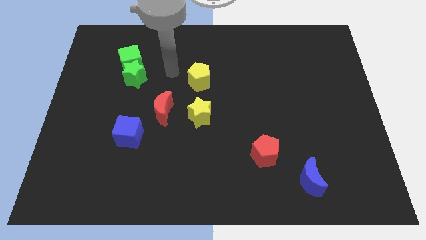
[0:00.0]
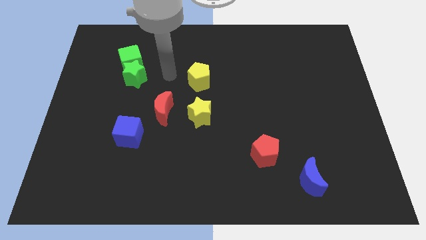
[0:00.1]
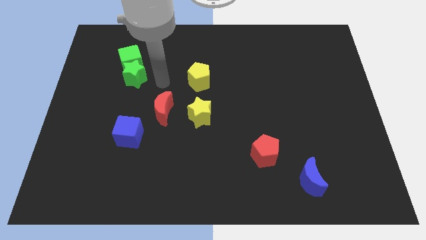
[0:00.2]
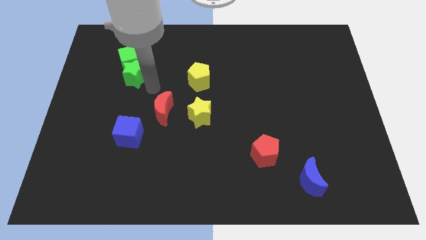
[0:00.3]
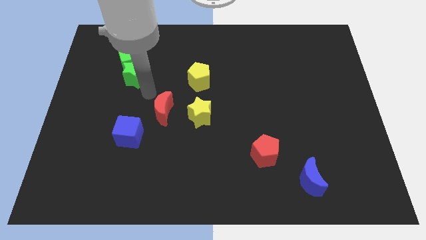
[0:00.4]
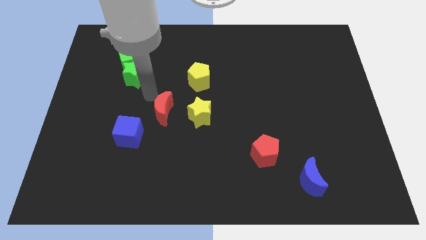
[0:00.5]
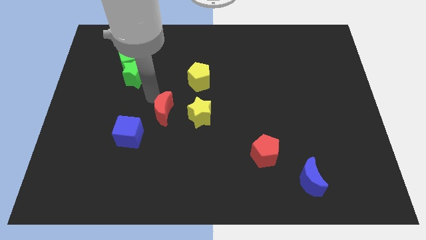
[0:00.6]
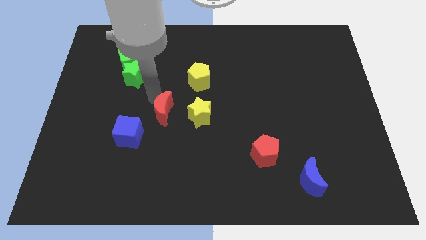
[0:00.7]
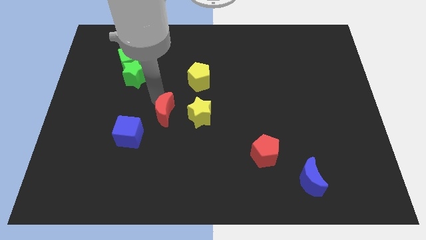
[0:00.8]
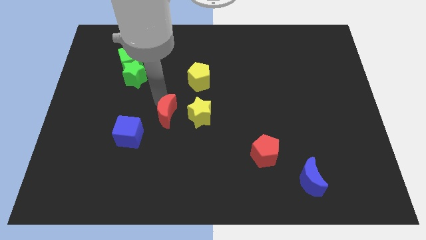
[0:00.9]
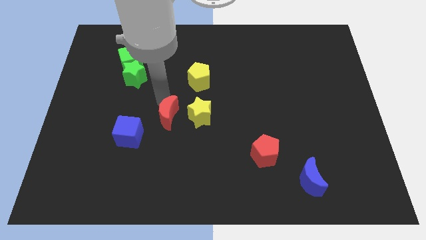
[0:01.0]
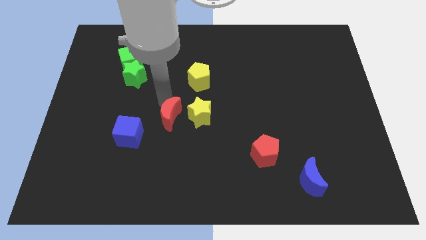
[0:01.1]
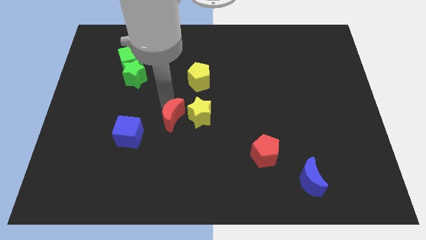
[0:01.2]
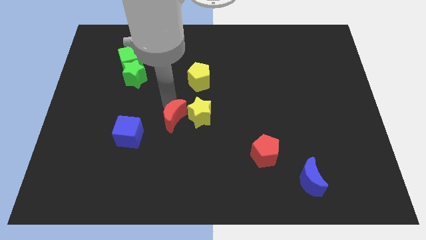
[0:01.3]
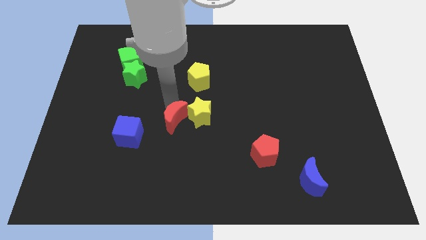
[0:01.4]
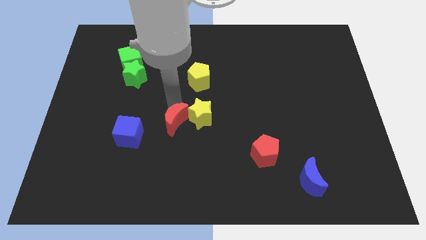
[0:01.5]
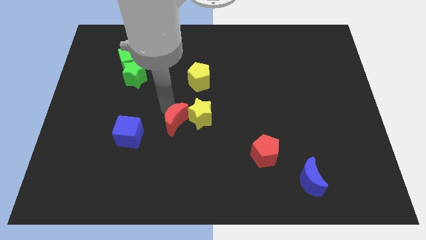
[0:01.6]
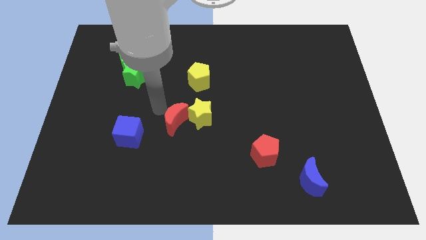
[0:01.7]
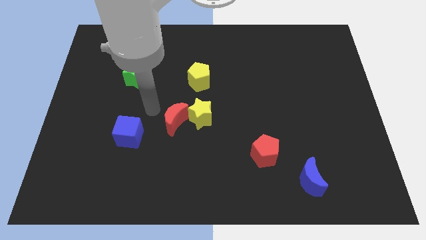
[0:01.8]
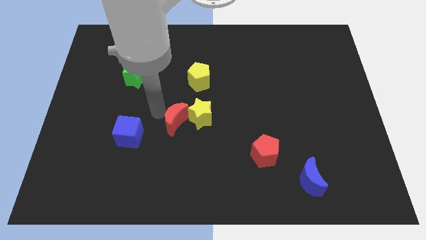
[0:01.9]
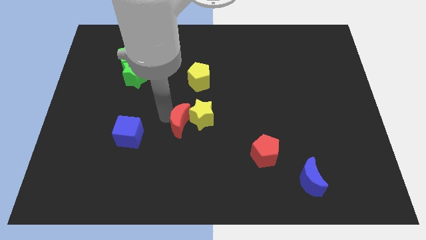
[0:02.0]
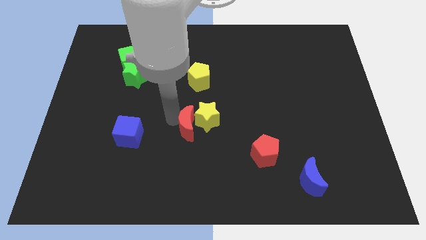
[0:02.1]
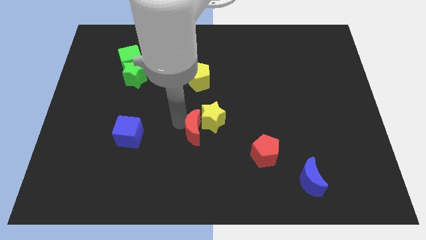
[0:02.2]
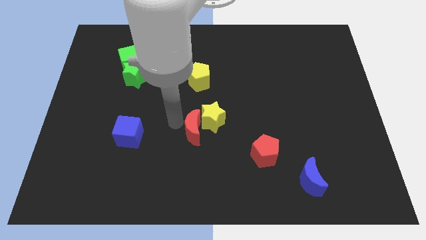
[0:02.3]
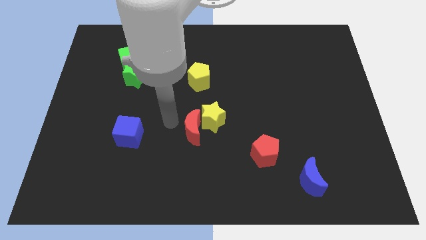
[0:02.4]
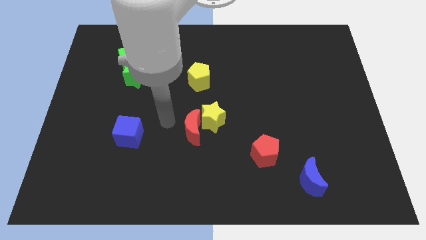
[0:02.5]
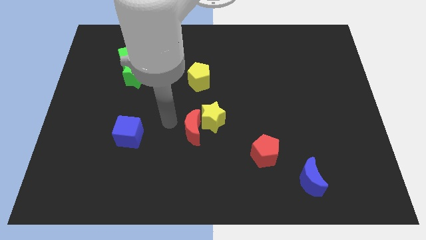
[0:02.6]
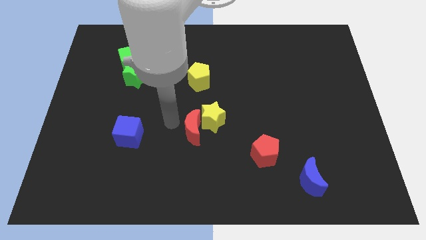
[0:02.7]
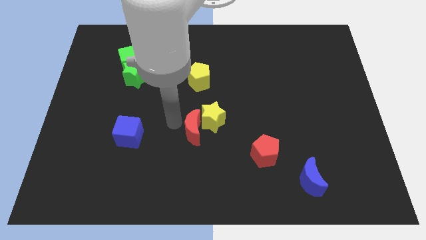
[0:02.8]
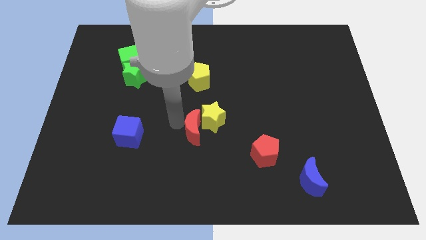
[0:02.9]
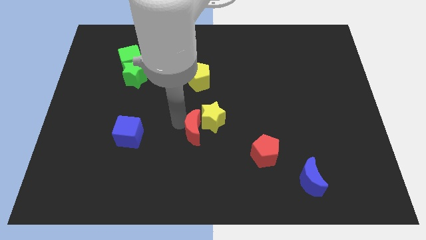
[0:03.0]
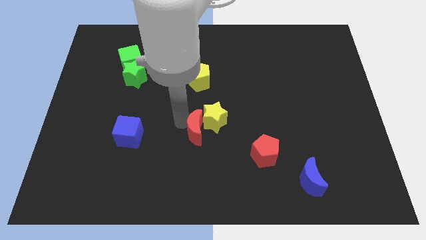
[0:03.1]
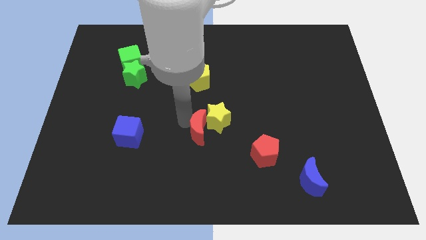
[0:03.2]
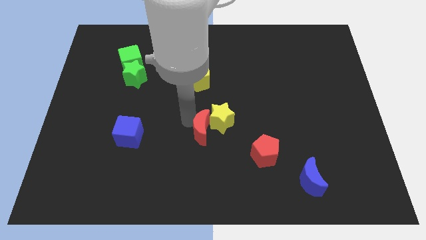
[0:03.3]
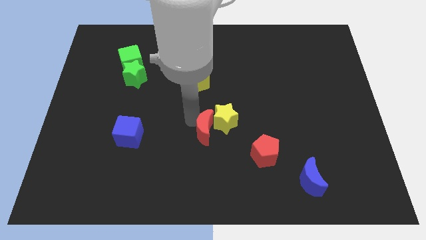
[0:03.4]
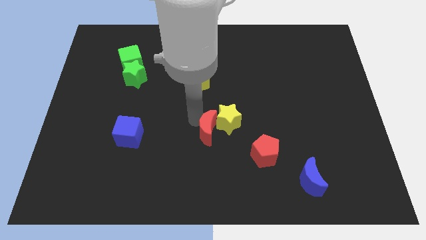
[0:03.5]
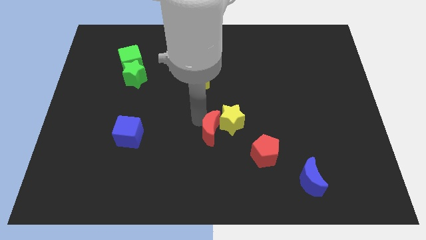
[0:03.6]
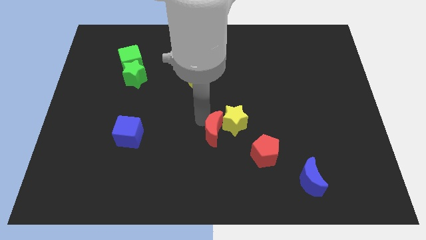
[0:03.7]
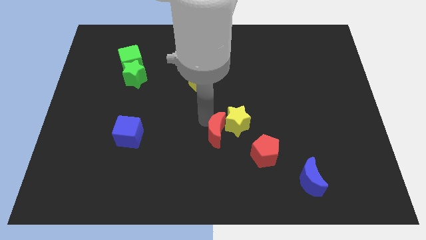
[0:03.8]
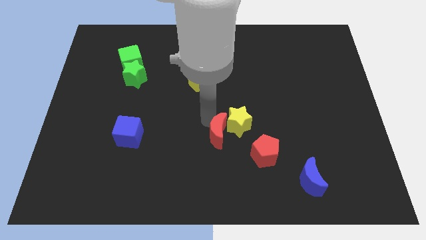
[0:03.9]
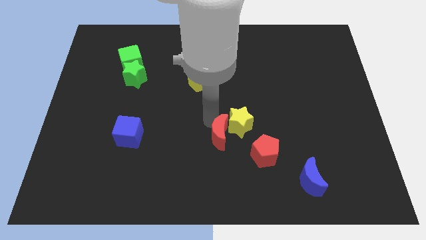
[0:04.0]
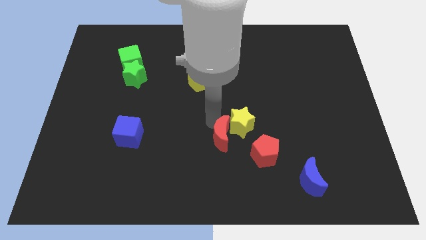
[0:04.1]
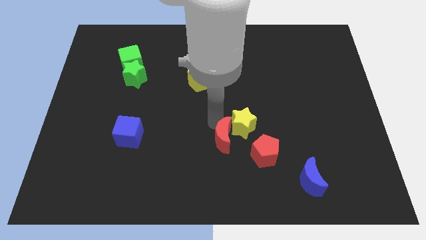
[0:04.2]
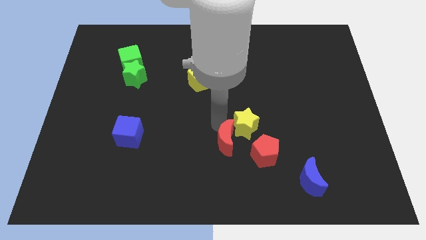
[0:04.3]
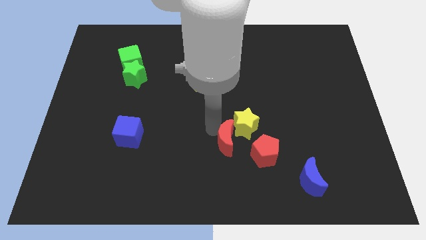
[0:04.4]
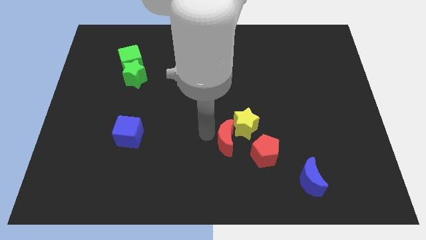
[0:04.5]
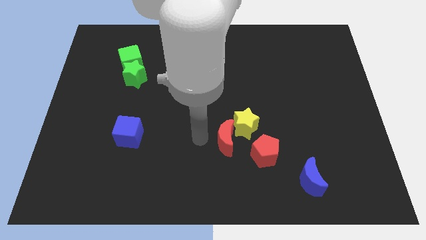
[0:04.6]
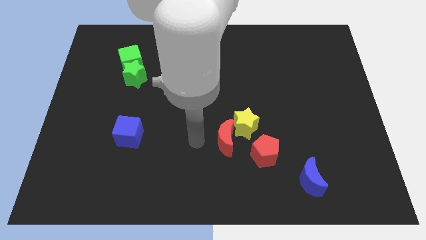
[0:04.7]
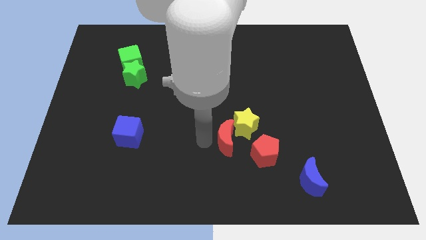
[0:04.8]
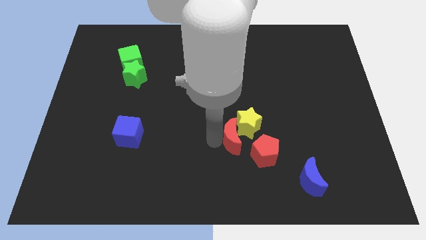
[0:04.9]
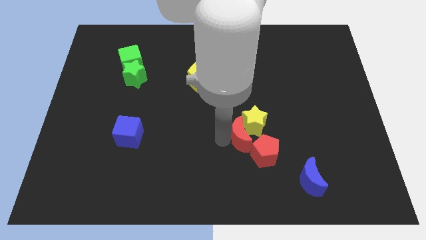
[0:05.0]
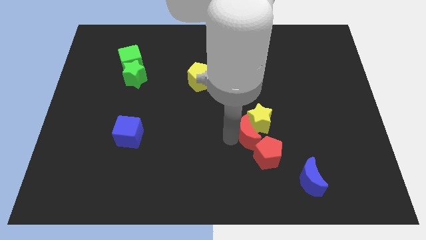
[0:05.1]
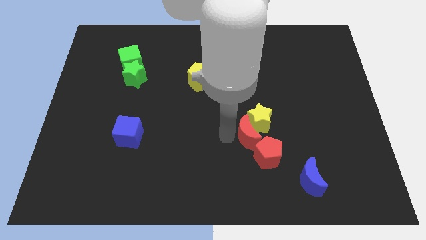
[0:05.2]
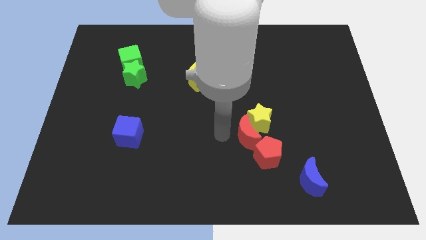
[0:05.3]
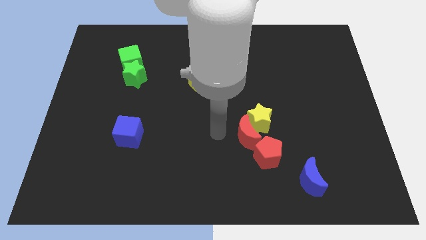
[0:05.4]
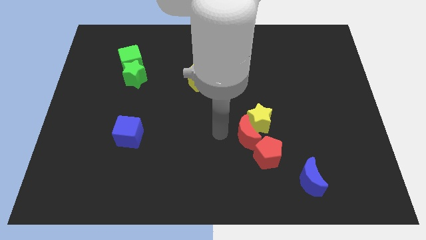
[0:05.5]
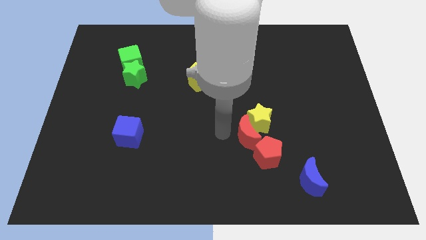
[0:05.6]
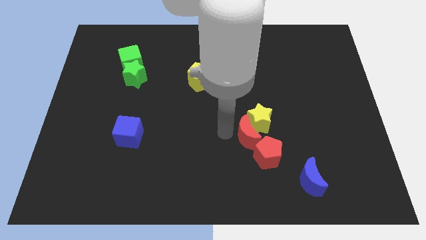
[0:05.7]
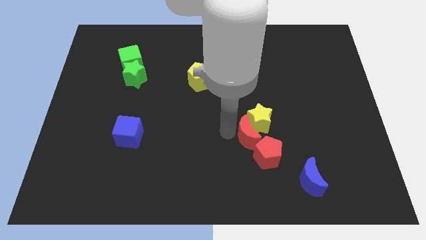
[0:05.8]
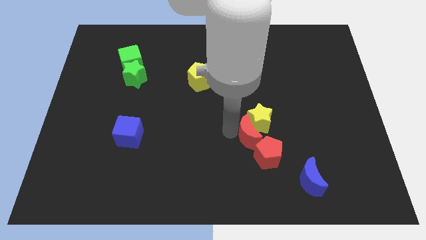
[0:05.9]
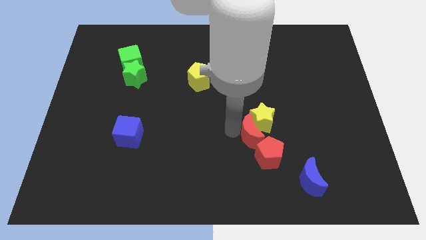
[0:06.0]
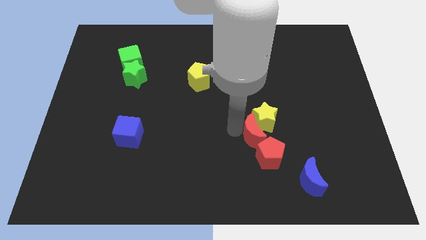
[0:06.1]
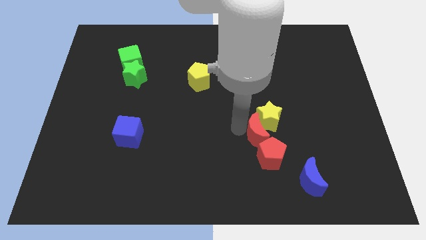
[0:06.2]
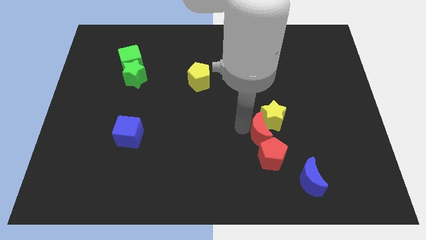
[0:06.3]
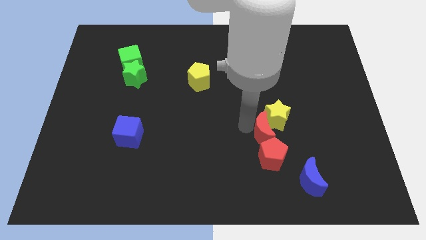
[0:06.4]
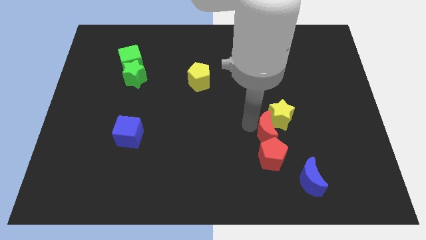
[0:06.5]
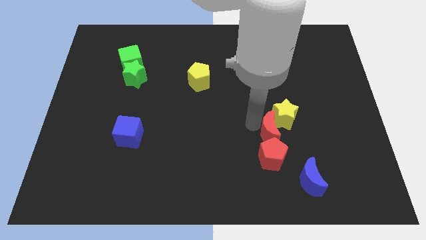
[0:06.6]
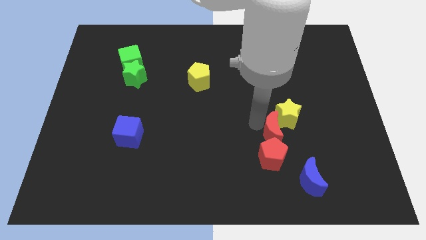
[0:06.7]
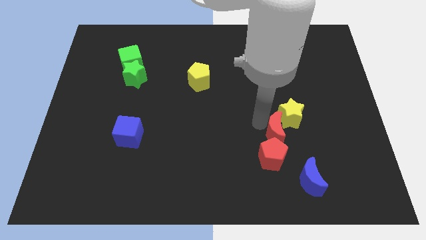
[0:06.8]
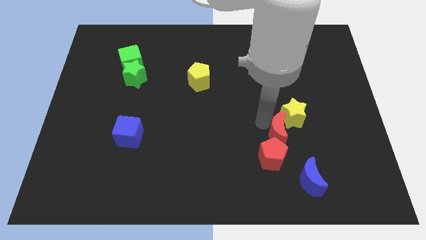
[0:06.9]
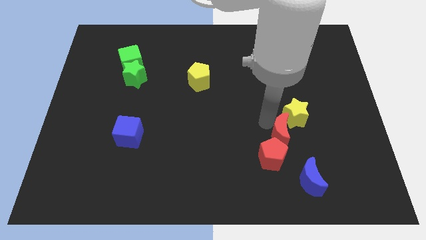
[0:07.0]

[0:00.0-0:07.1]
slide the red moon above the blue moon
